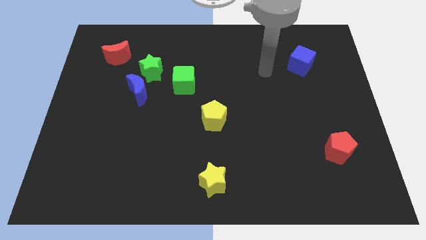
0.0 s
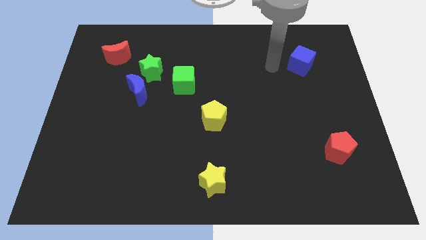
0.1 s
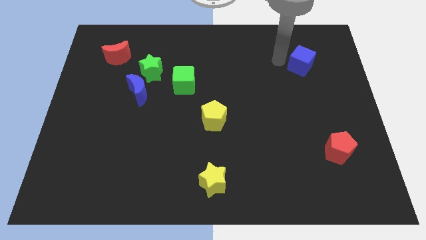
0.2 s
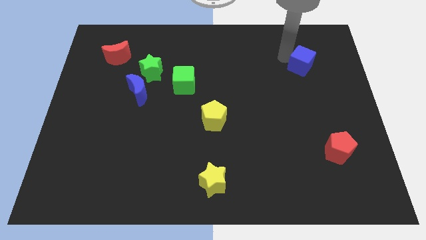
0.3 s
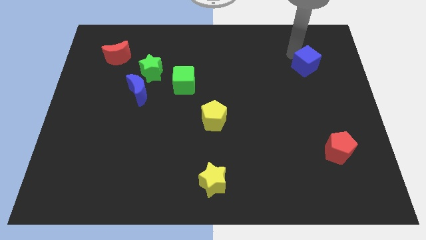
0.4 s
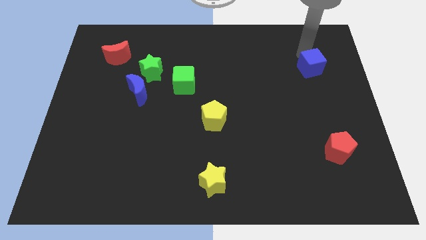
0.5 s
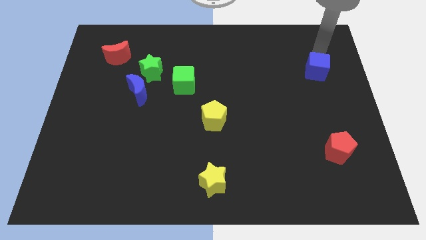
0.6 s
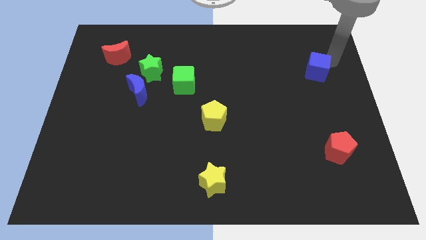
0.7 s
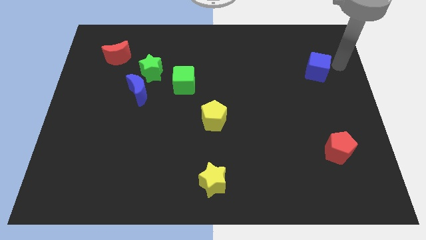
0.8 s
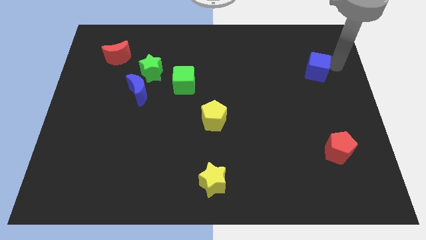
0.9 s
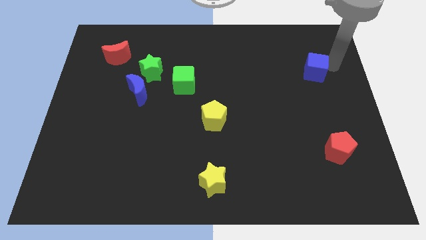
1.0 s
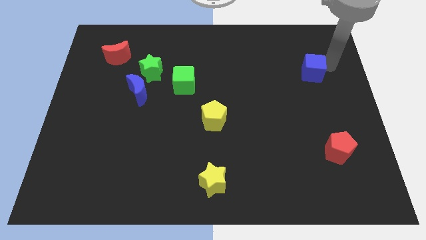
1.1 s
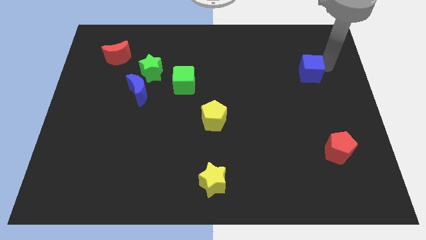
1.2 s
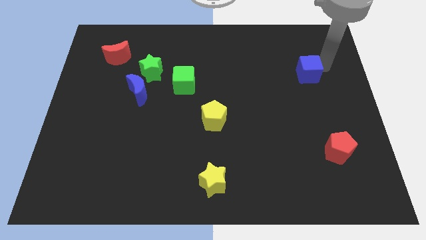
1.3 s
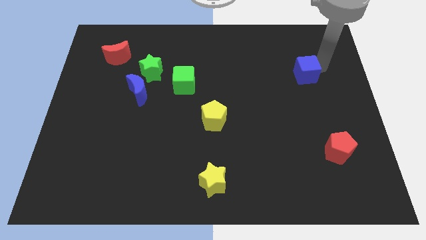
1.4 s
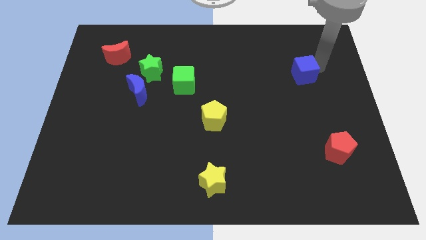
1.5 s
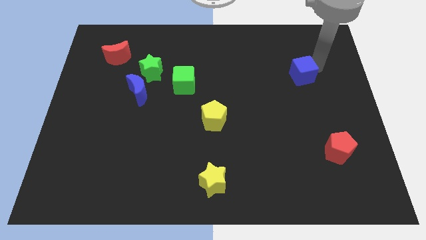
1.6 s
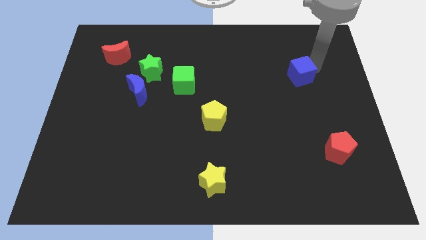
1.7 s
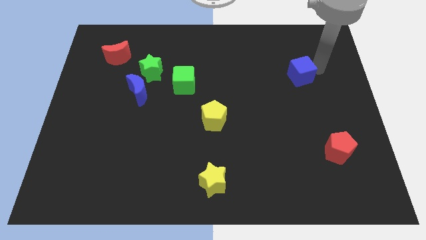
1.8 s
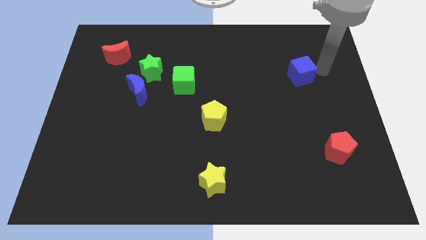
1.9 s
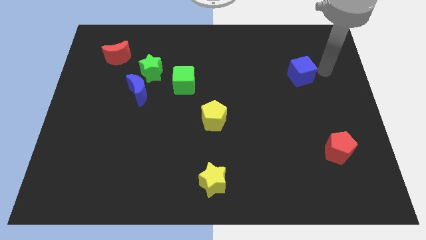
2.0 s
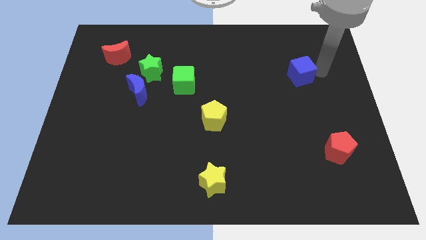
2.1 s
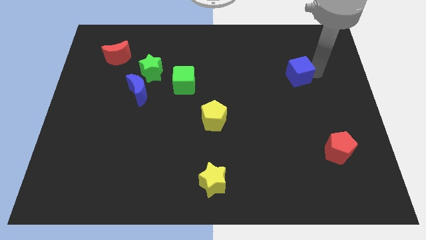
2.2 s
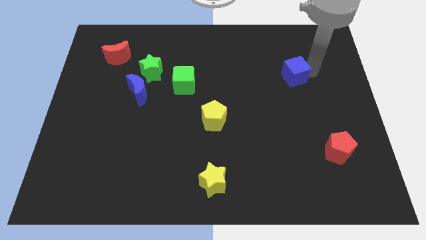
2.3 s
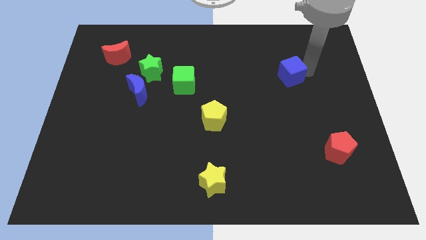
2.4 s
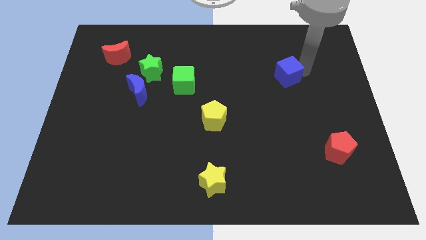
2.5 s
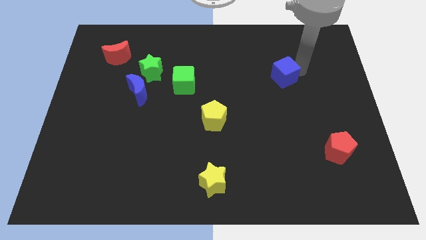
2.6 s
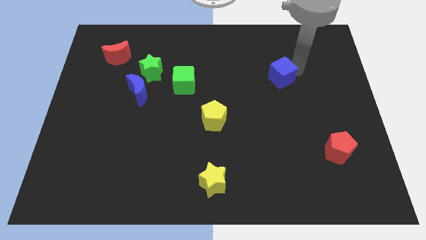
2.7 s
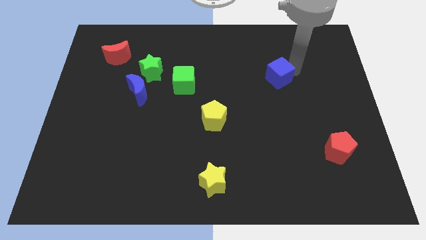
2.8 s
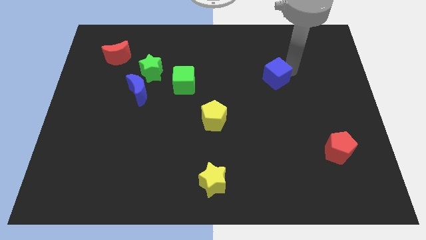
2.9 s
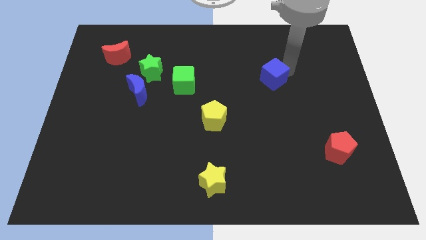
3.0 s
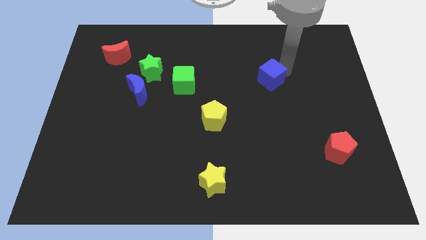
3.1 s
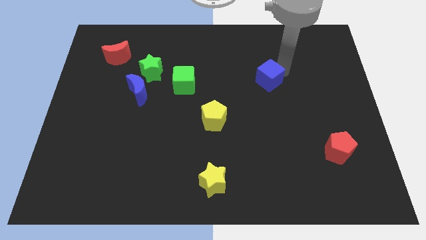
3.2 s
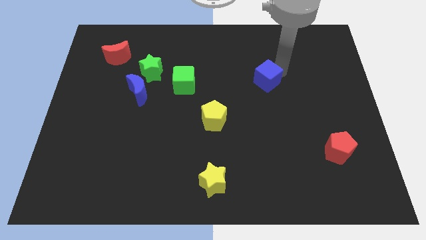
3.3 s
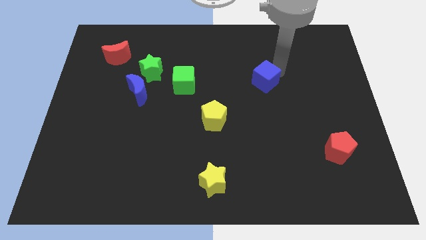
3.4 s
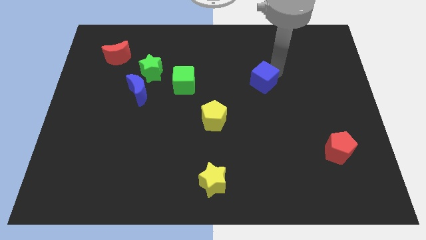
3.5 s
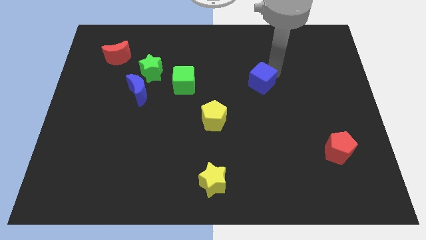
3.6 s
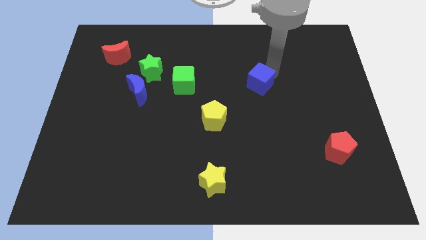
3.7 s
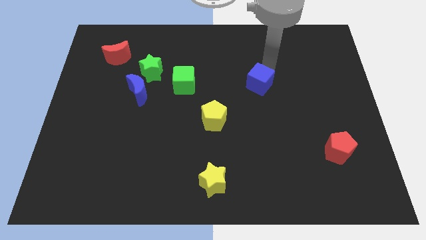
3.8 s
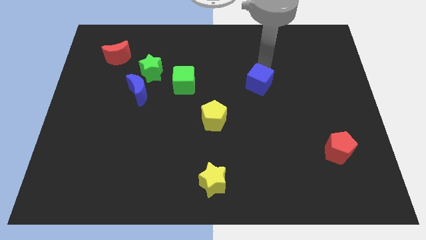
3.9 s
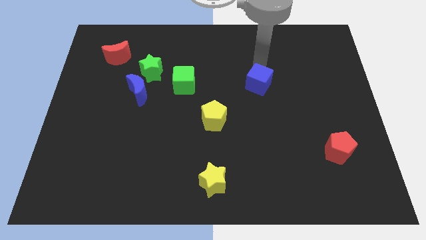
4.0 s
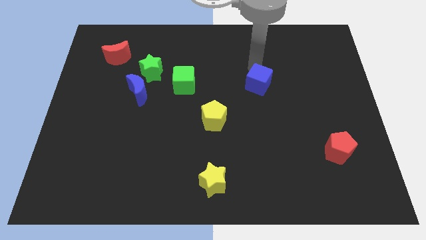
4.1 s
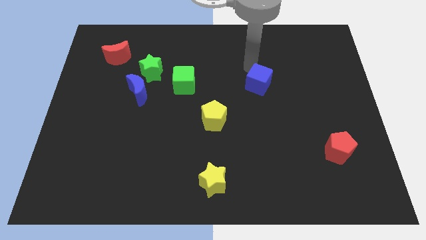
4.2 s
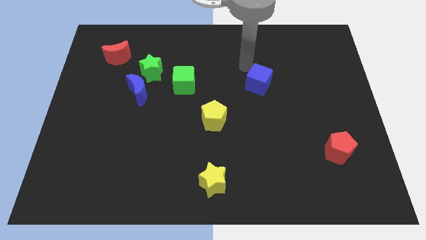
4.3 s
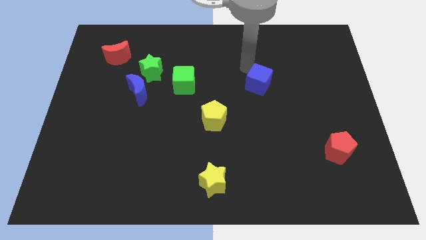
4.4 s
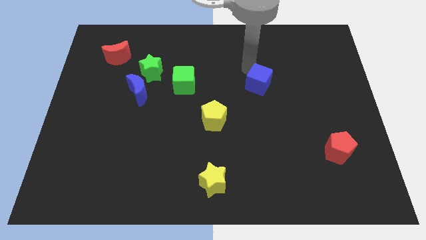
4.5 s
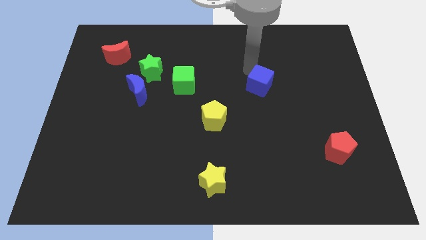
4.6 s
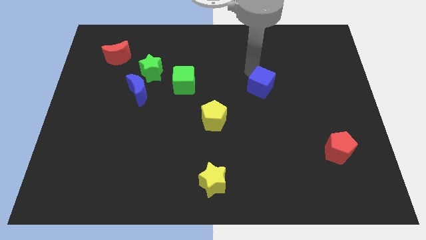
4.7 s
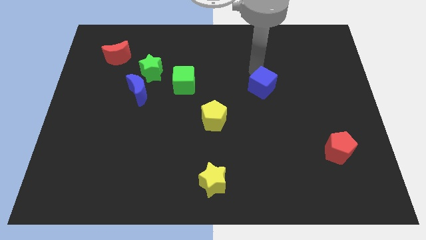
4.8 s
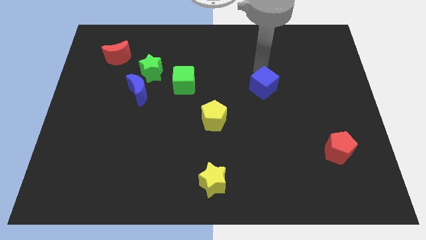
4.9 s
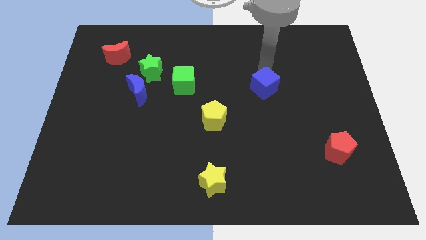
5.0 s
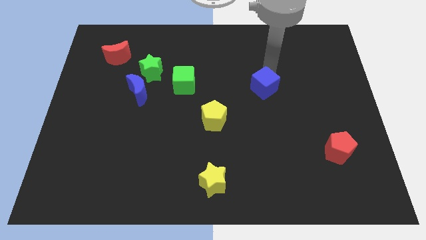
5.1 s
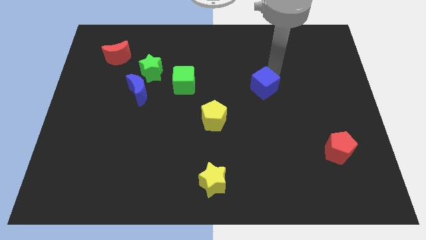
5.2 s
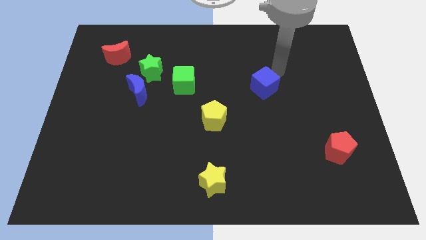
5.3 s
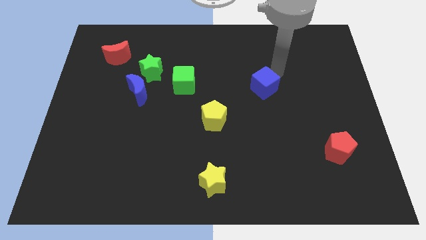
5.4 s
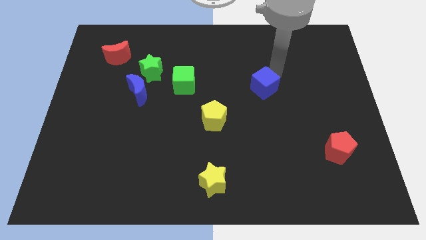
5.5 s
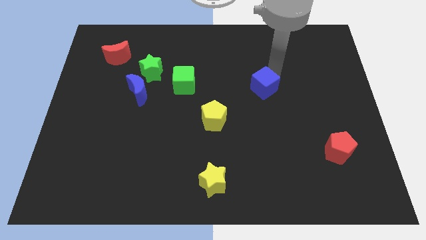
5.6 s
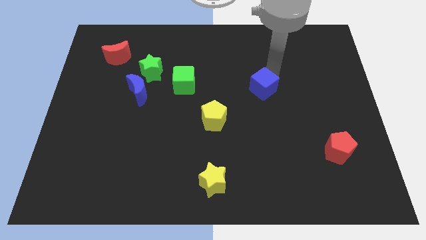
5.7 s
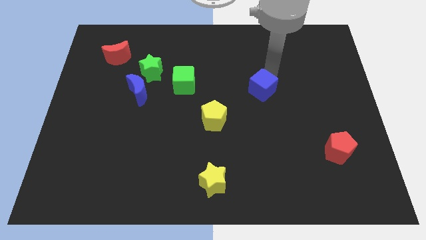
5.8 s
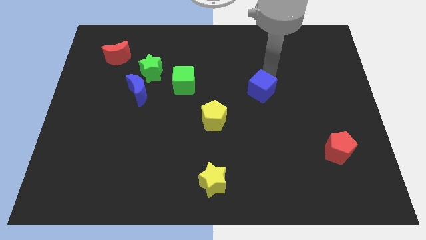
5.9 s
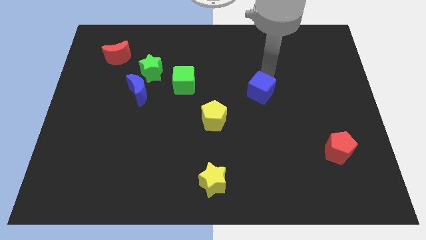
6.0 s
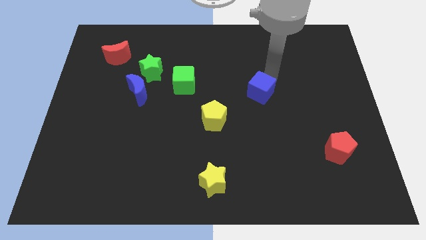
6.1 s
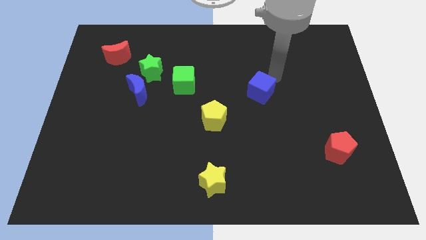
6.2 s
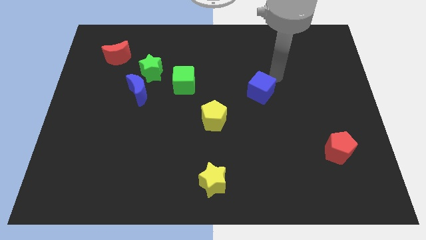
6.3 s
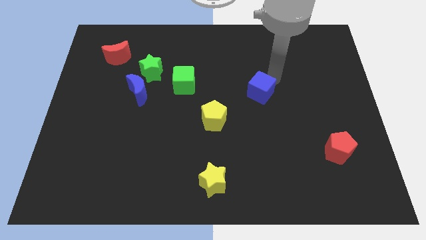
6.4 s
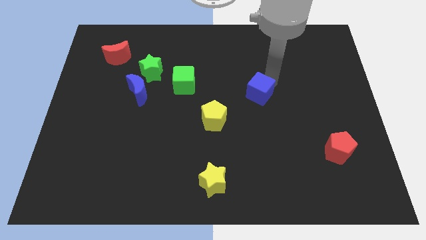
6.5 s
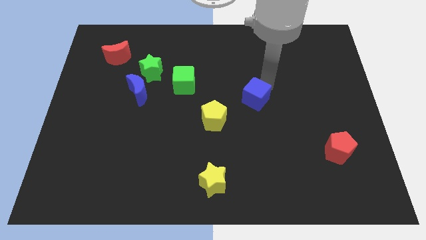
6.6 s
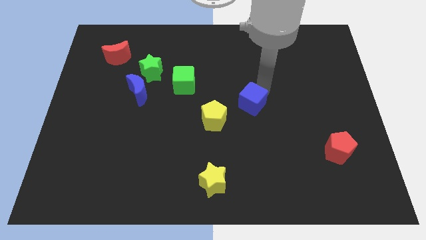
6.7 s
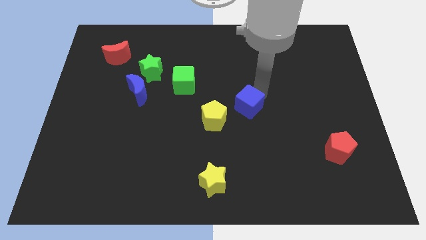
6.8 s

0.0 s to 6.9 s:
move the blue cube down and left diagonally

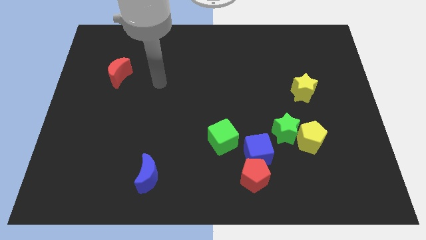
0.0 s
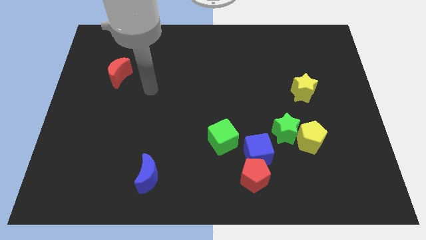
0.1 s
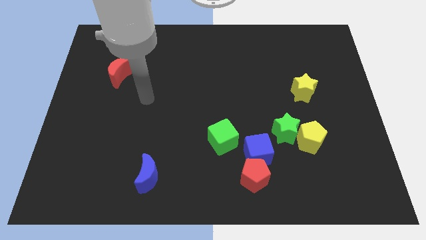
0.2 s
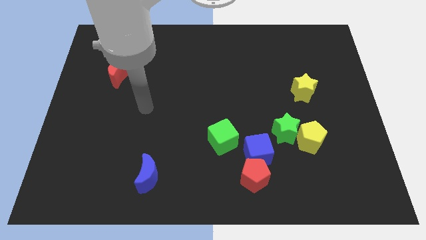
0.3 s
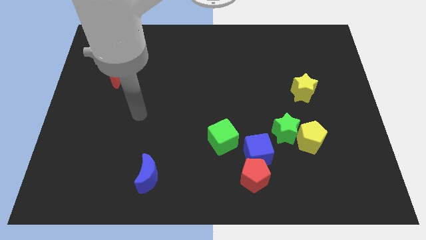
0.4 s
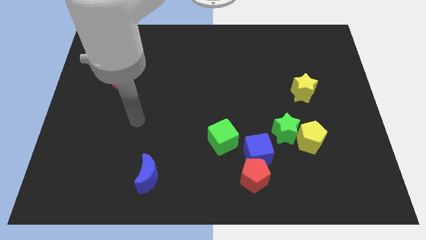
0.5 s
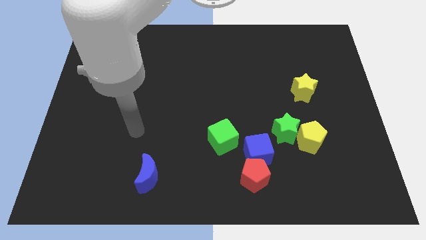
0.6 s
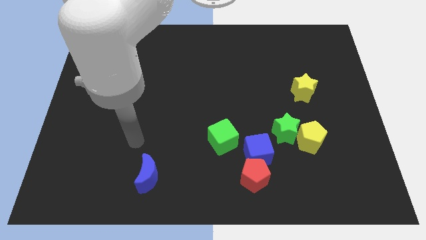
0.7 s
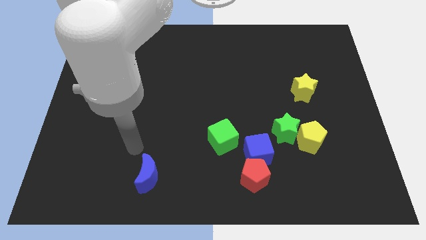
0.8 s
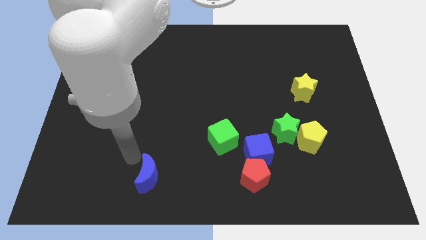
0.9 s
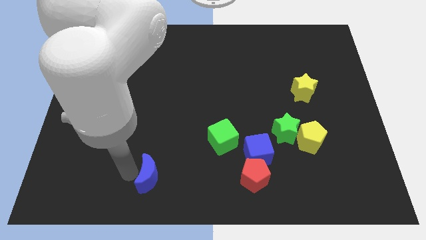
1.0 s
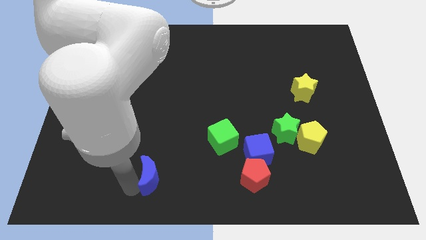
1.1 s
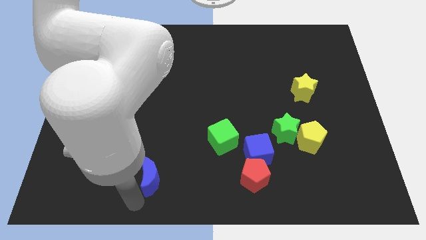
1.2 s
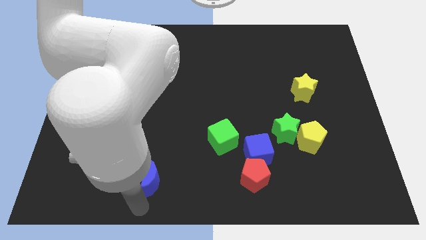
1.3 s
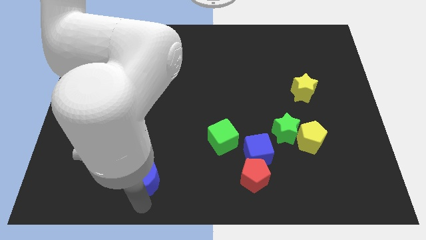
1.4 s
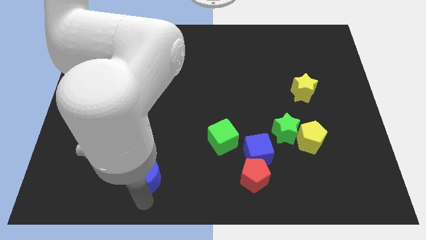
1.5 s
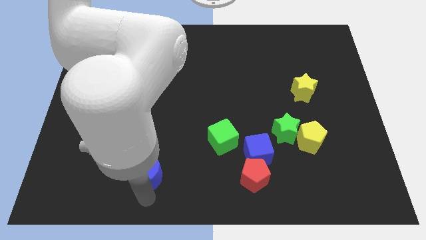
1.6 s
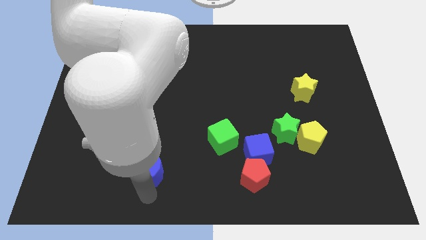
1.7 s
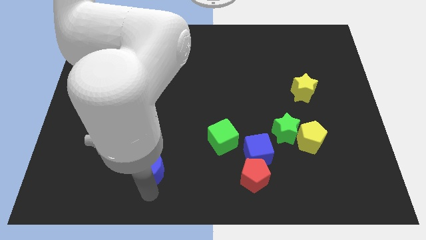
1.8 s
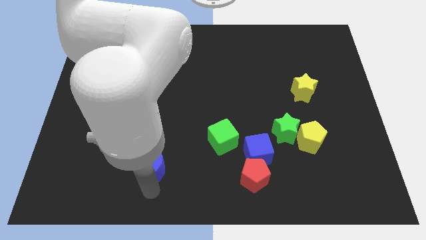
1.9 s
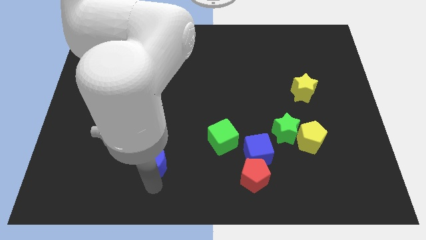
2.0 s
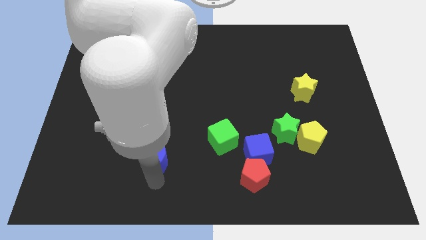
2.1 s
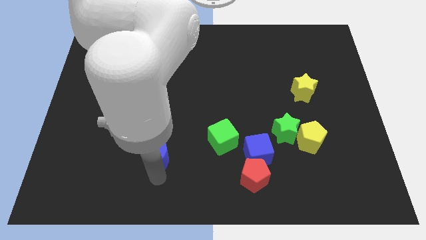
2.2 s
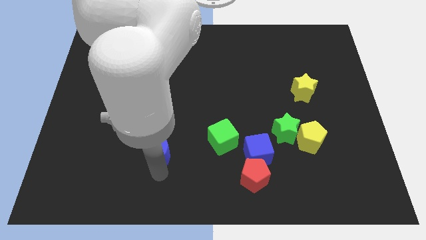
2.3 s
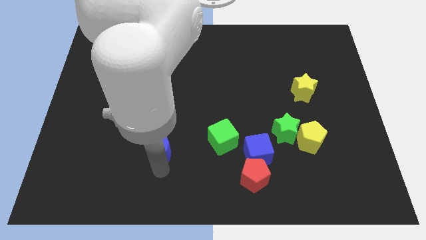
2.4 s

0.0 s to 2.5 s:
slightly move the blue moon up
